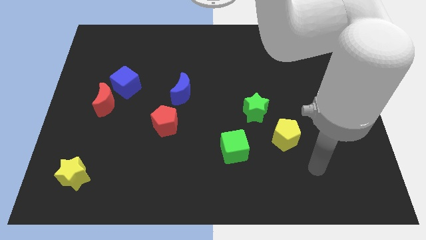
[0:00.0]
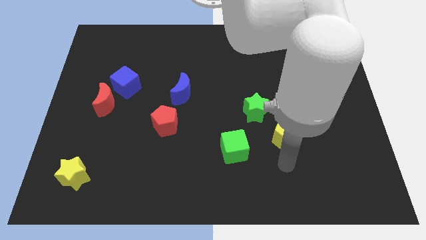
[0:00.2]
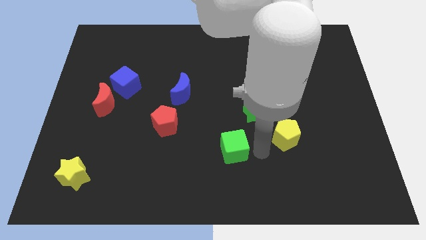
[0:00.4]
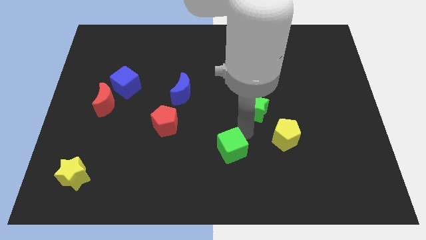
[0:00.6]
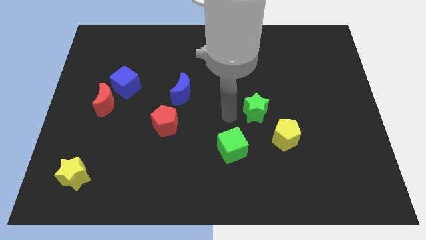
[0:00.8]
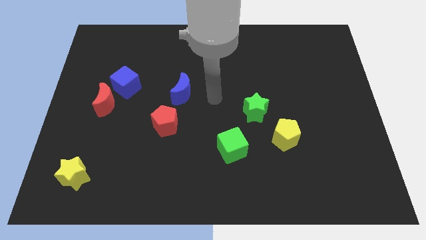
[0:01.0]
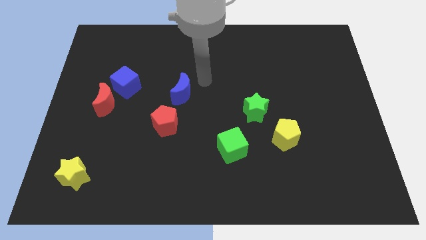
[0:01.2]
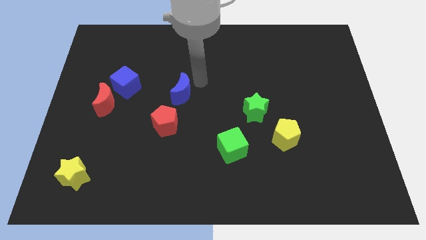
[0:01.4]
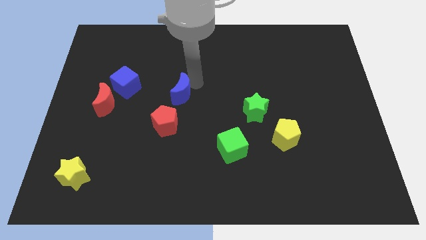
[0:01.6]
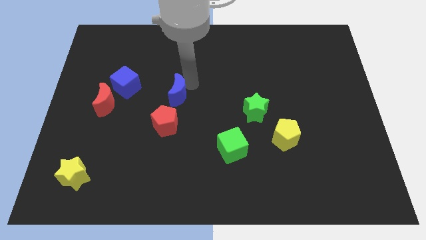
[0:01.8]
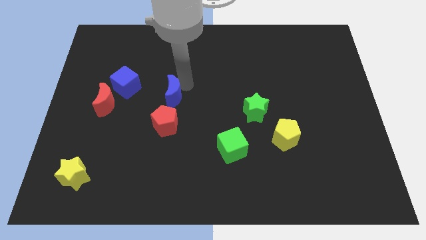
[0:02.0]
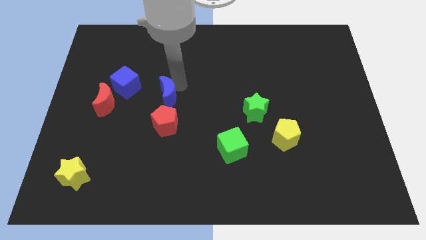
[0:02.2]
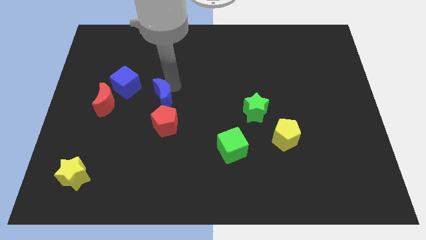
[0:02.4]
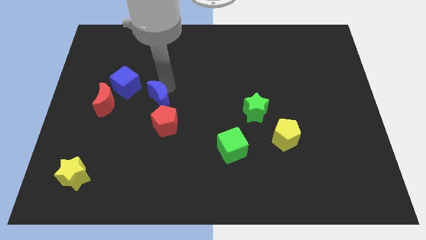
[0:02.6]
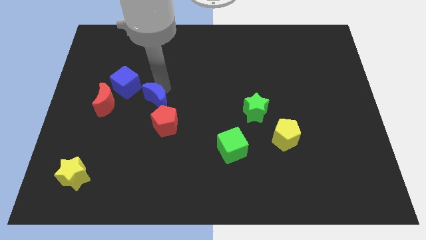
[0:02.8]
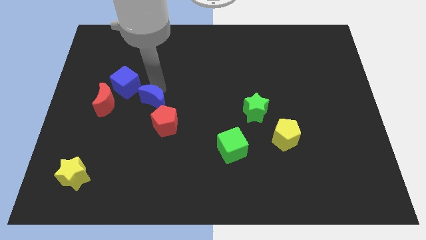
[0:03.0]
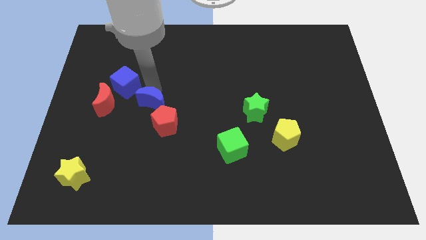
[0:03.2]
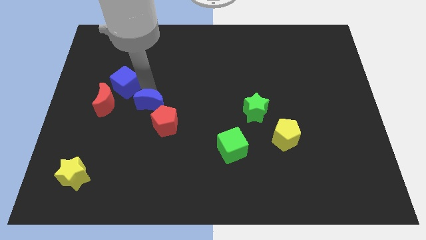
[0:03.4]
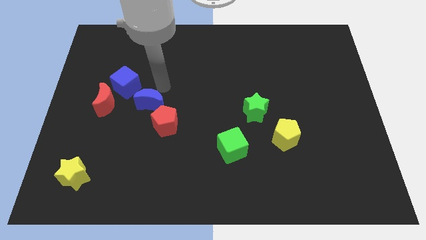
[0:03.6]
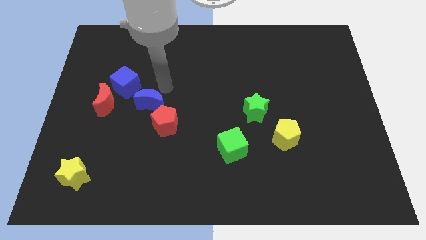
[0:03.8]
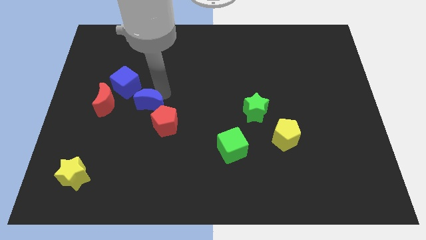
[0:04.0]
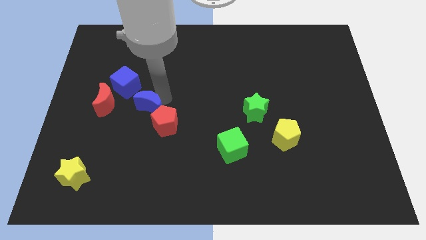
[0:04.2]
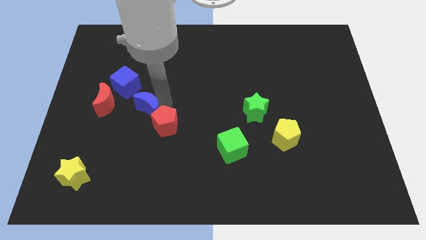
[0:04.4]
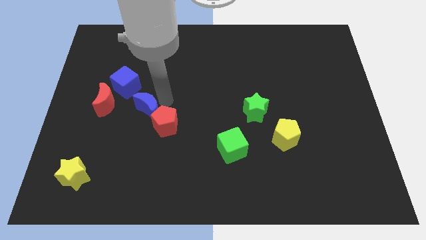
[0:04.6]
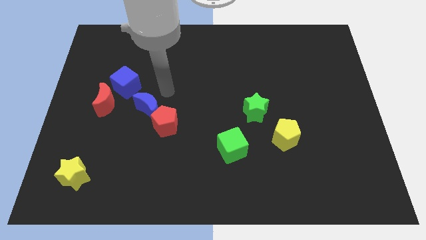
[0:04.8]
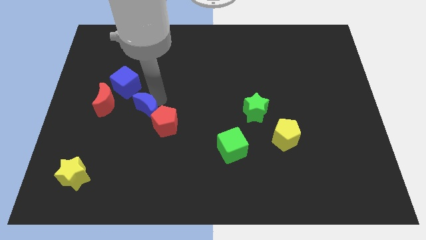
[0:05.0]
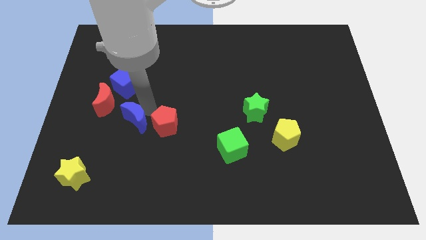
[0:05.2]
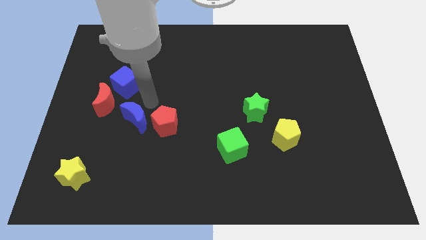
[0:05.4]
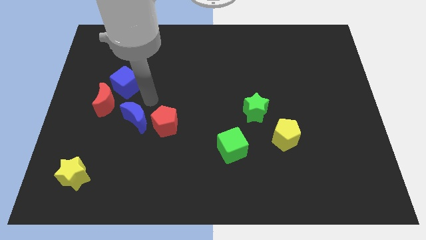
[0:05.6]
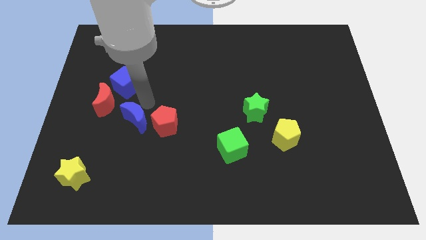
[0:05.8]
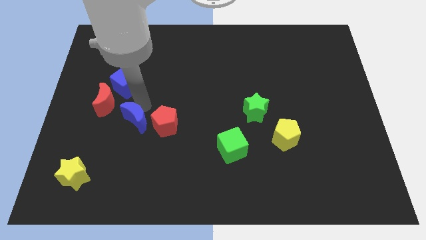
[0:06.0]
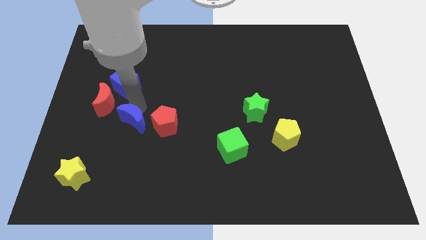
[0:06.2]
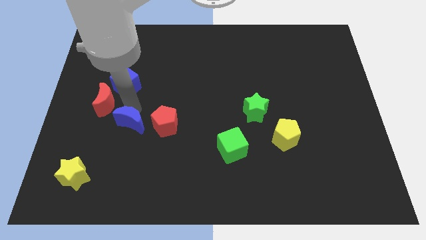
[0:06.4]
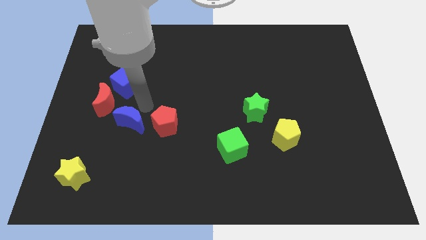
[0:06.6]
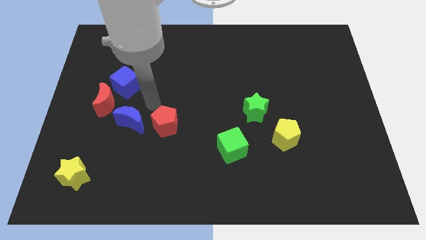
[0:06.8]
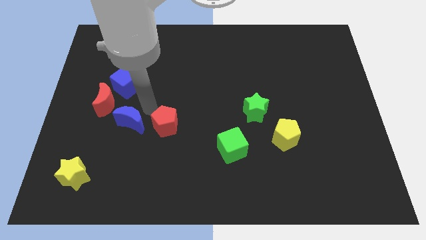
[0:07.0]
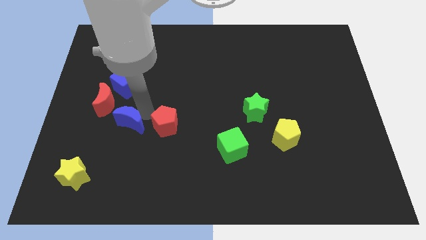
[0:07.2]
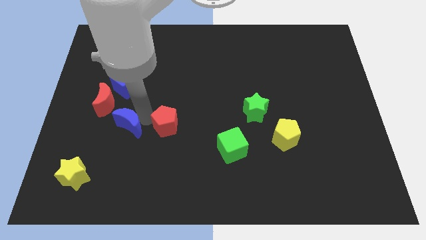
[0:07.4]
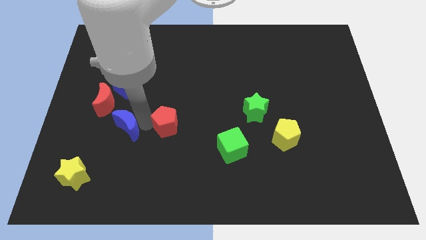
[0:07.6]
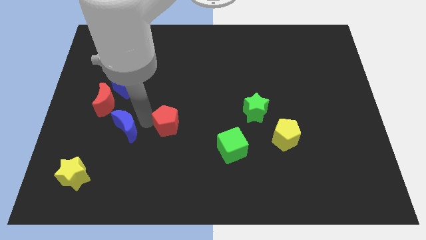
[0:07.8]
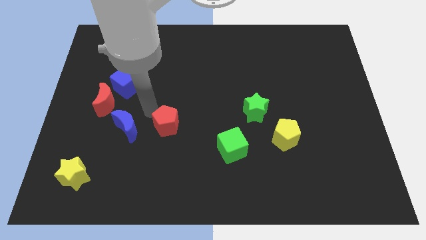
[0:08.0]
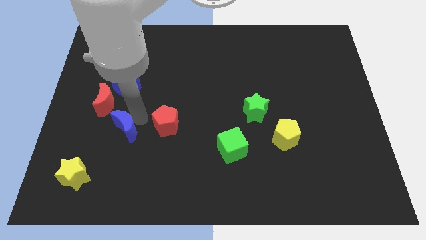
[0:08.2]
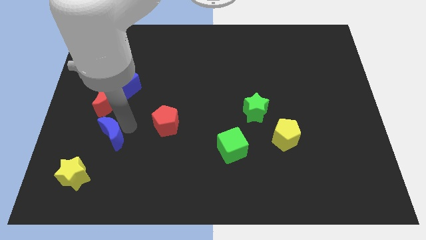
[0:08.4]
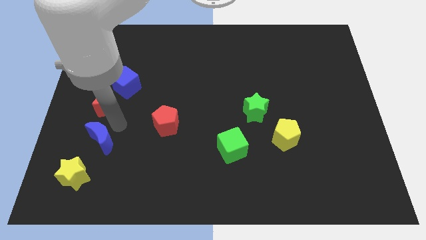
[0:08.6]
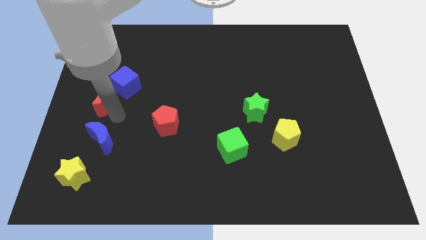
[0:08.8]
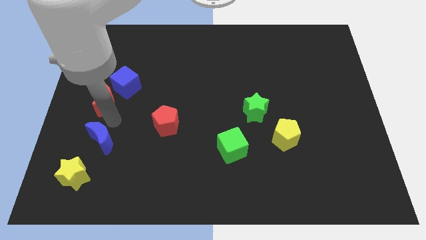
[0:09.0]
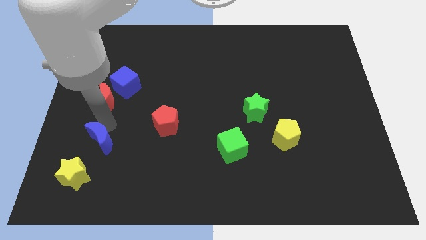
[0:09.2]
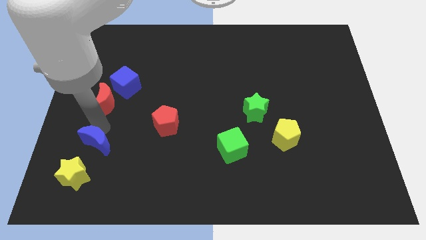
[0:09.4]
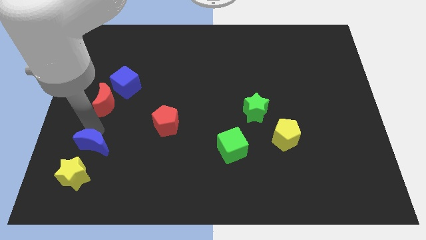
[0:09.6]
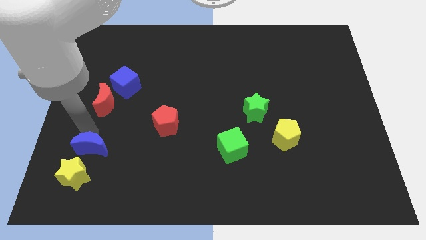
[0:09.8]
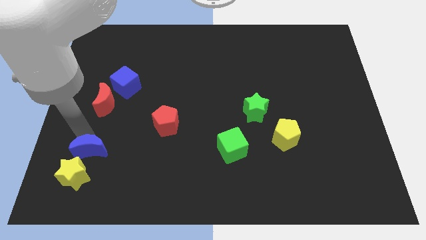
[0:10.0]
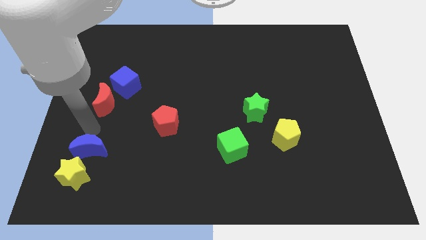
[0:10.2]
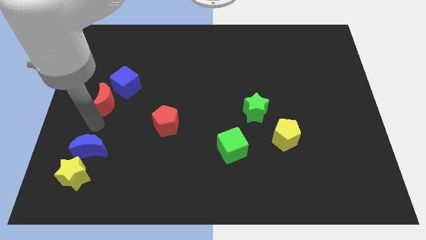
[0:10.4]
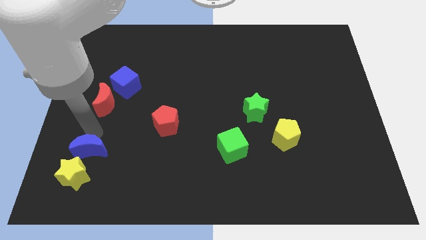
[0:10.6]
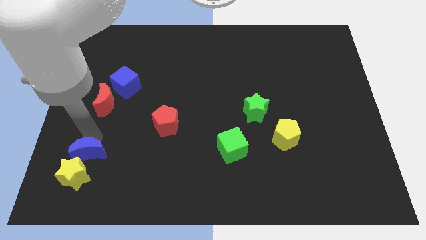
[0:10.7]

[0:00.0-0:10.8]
move the blue moon close to the yellow star

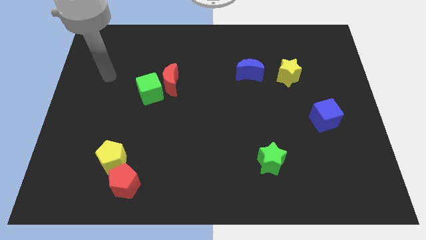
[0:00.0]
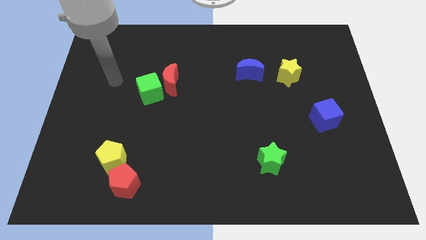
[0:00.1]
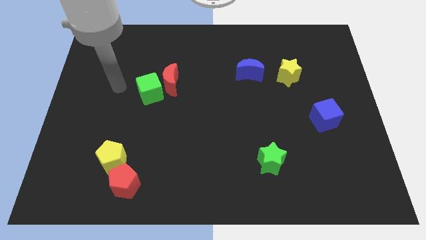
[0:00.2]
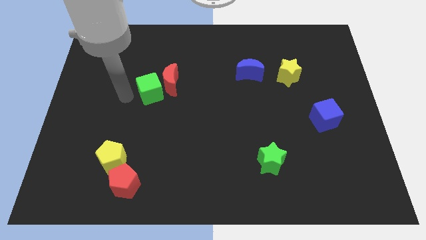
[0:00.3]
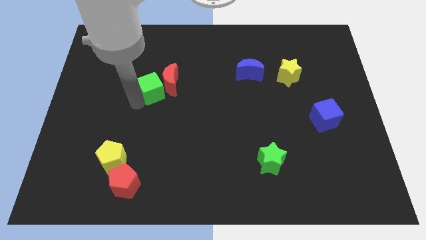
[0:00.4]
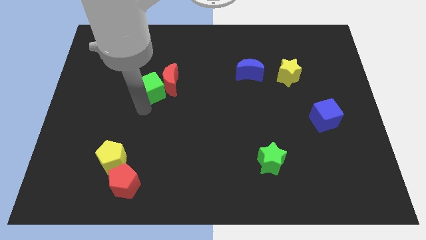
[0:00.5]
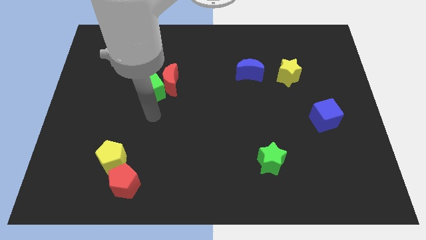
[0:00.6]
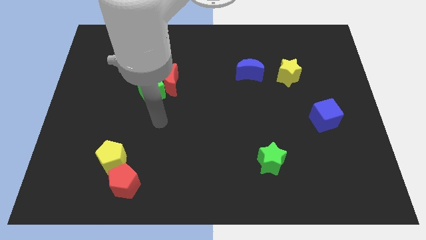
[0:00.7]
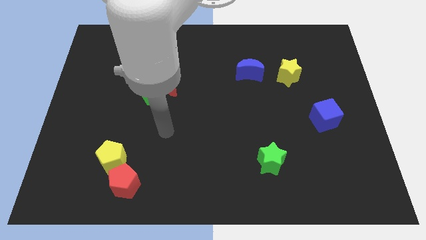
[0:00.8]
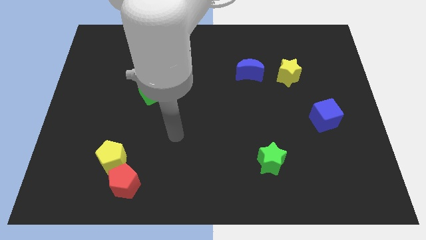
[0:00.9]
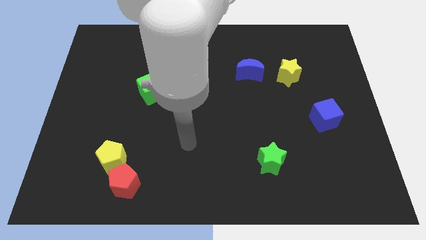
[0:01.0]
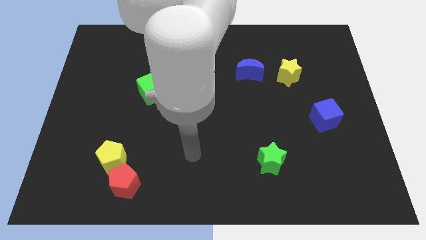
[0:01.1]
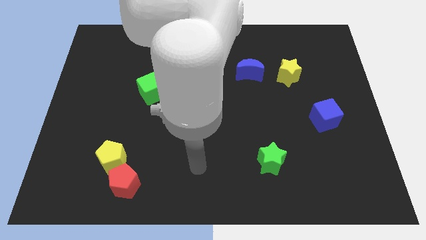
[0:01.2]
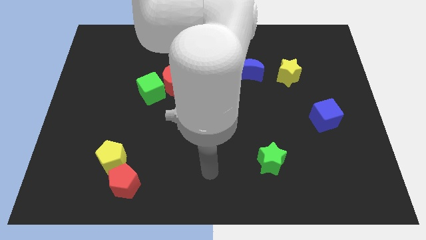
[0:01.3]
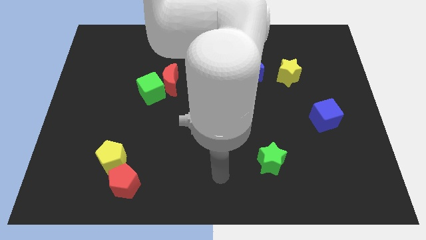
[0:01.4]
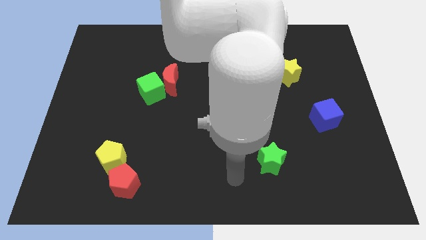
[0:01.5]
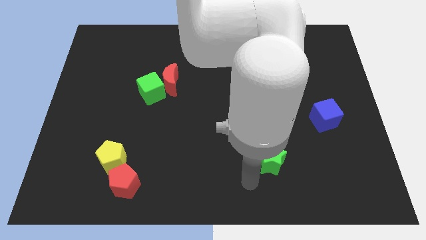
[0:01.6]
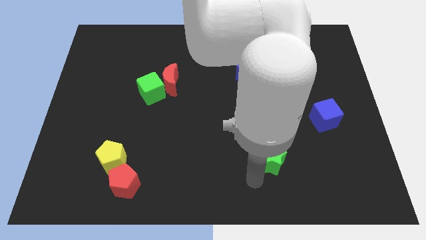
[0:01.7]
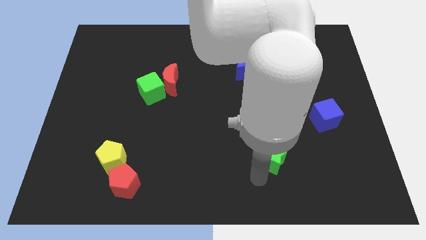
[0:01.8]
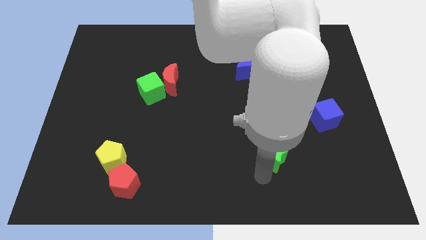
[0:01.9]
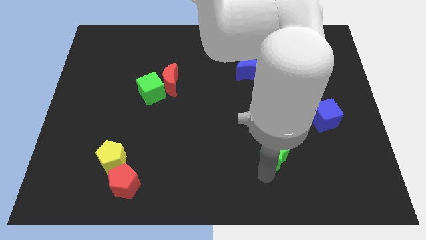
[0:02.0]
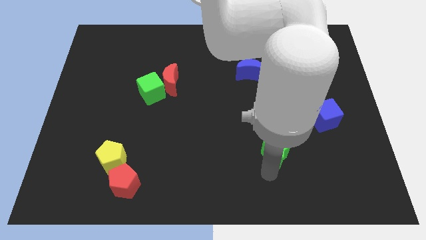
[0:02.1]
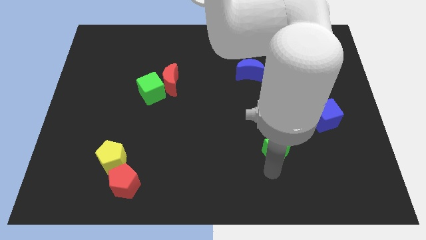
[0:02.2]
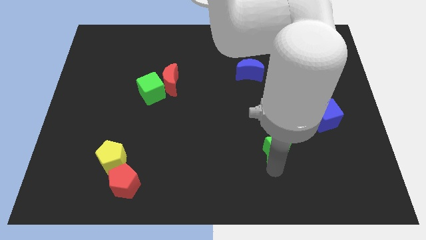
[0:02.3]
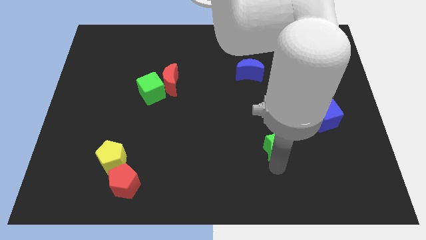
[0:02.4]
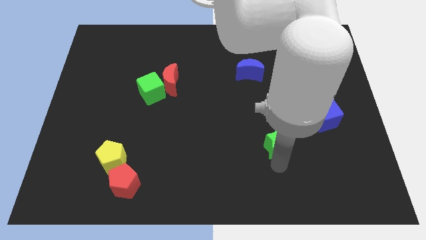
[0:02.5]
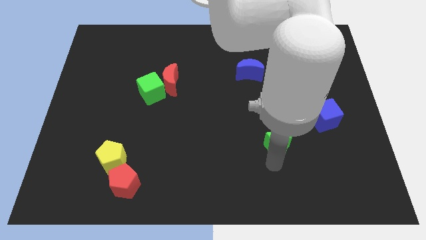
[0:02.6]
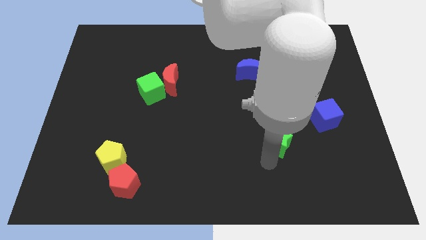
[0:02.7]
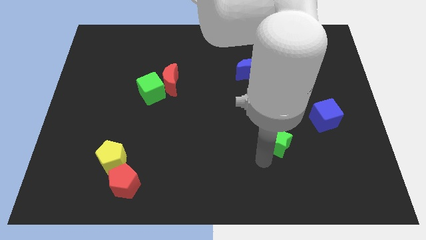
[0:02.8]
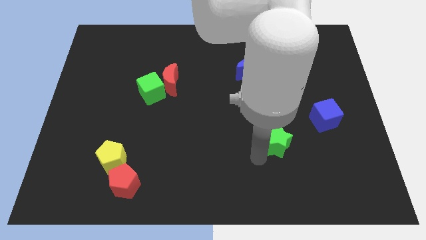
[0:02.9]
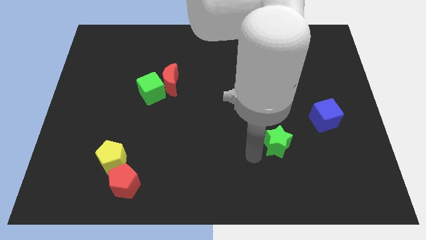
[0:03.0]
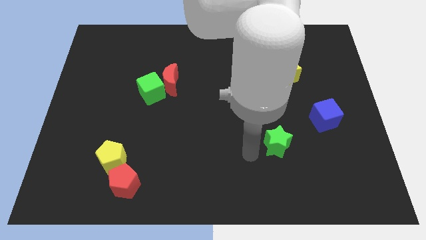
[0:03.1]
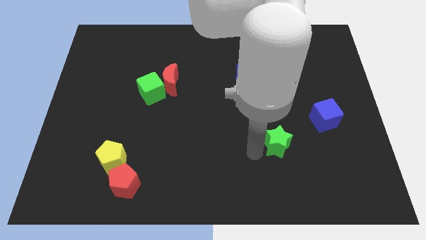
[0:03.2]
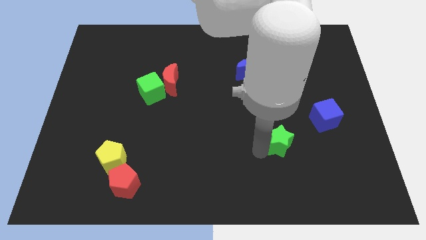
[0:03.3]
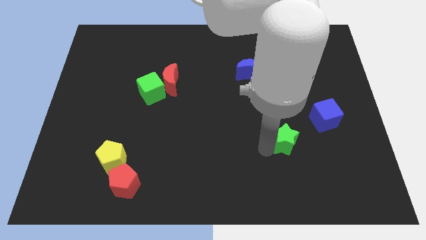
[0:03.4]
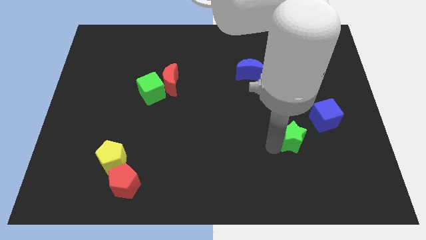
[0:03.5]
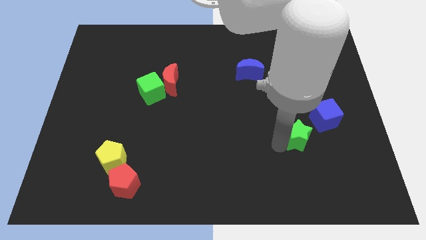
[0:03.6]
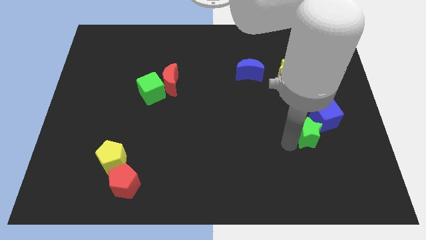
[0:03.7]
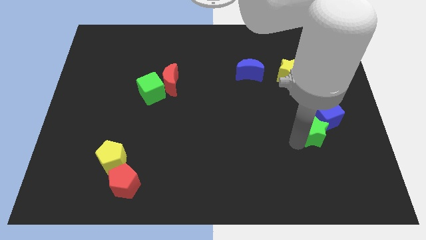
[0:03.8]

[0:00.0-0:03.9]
push the green star next to the blue cube
